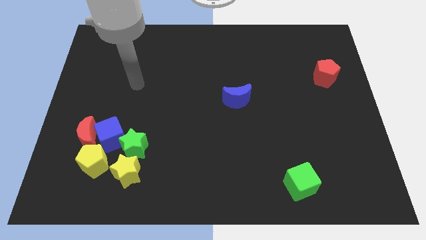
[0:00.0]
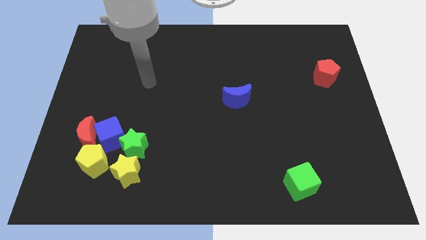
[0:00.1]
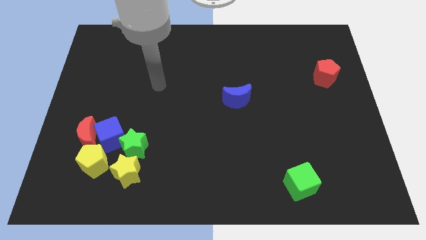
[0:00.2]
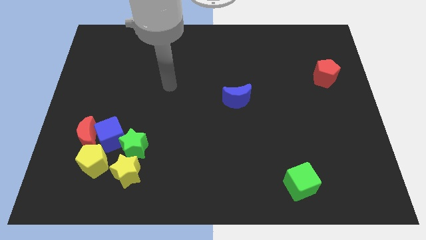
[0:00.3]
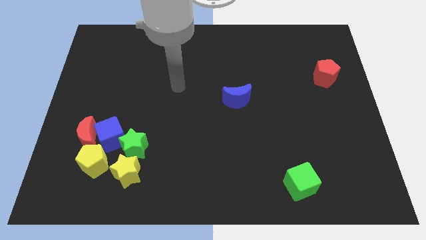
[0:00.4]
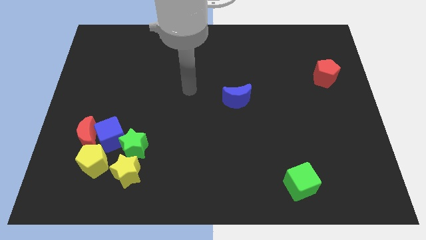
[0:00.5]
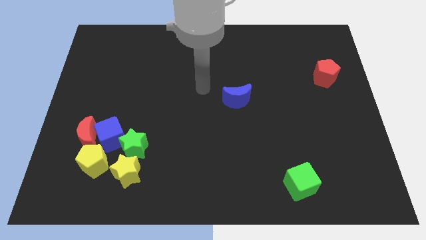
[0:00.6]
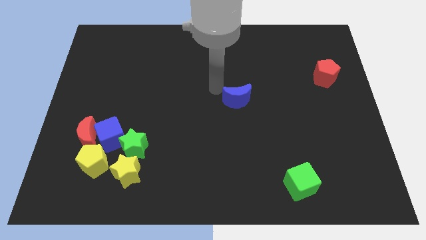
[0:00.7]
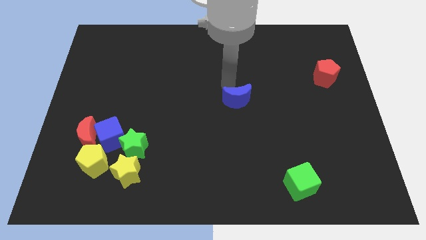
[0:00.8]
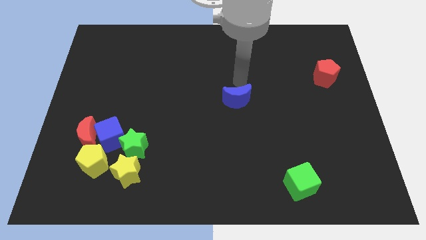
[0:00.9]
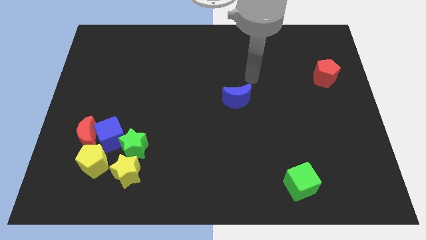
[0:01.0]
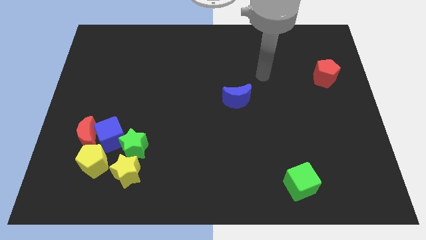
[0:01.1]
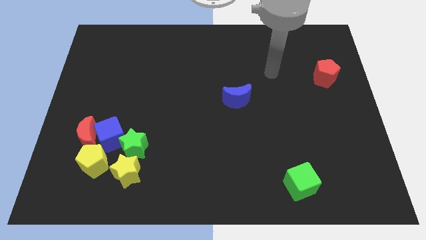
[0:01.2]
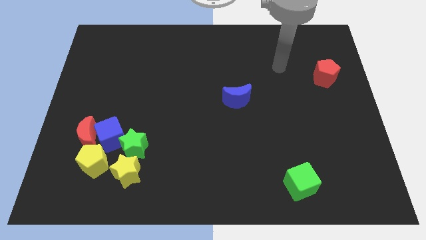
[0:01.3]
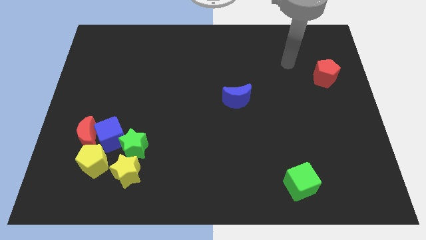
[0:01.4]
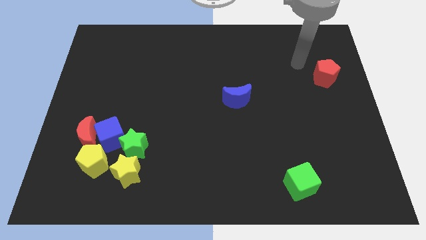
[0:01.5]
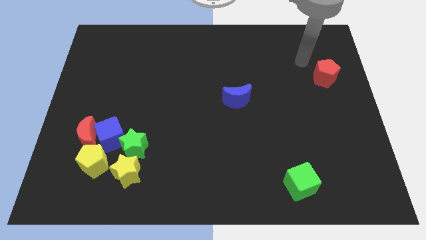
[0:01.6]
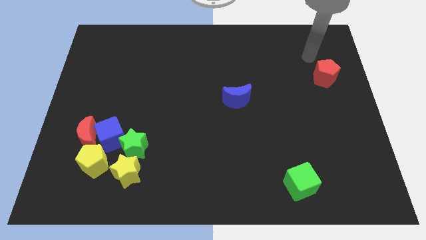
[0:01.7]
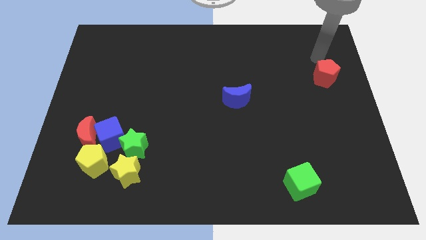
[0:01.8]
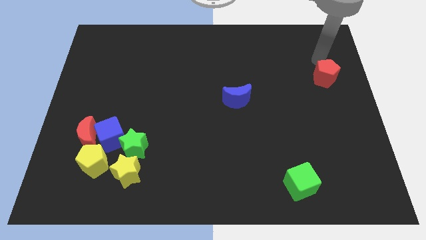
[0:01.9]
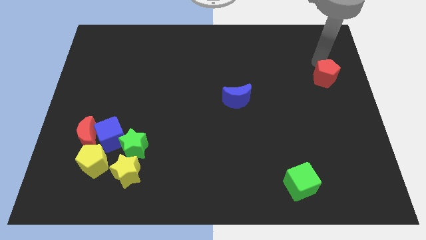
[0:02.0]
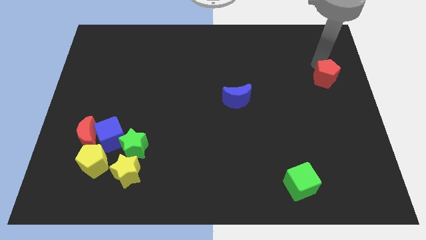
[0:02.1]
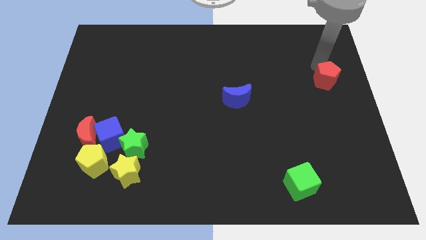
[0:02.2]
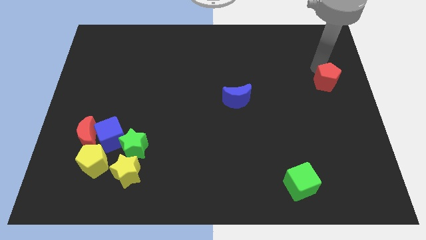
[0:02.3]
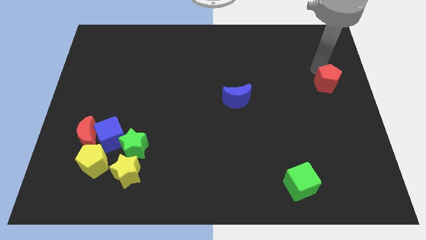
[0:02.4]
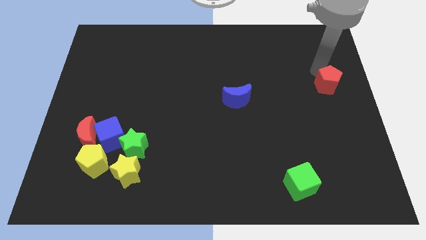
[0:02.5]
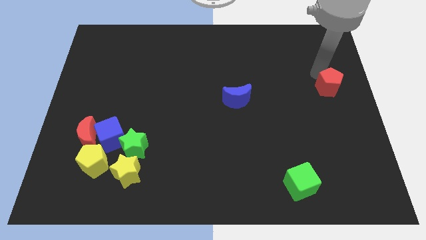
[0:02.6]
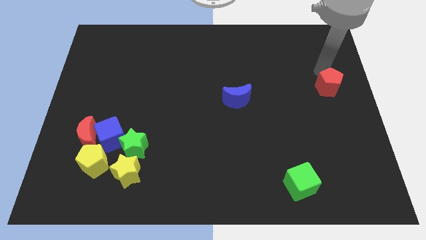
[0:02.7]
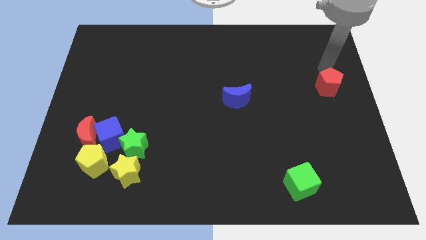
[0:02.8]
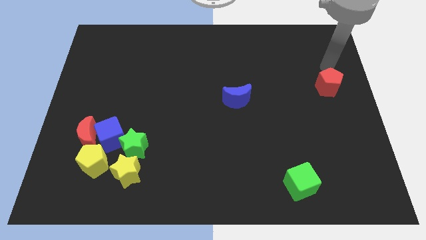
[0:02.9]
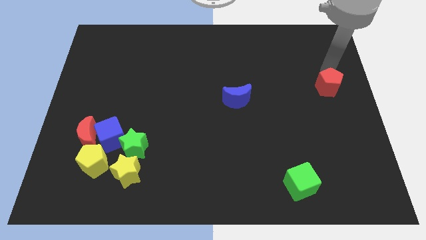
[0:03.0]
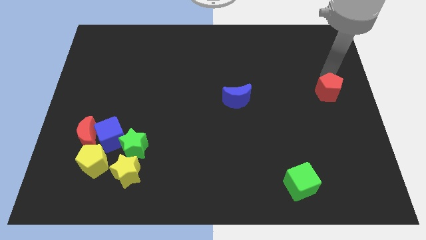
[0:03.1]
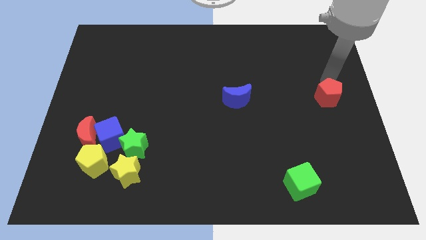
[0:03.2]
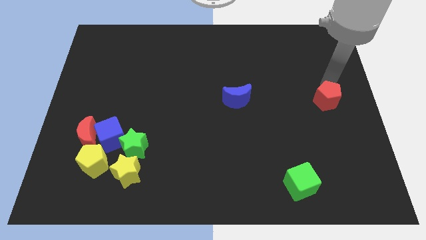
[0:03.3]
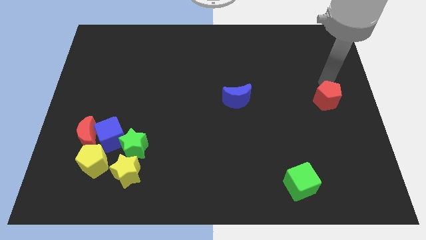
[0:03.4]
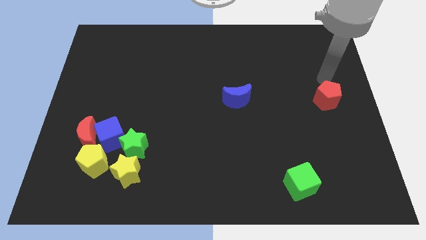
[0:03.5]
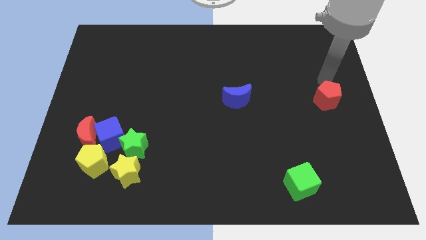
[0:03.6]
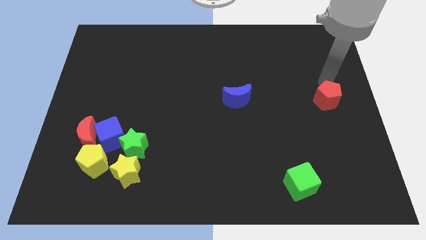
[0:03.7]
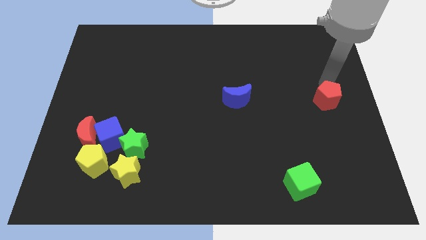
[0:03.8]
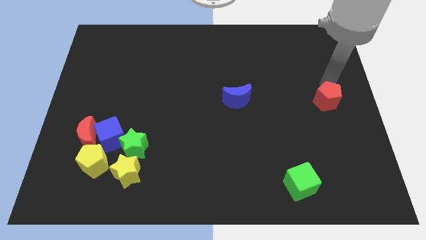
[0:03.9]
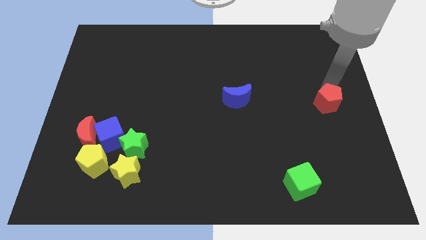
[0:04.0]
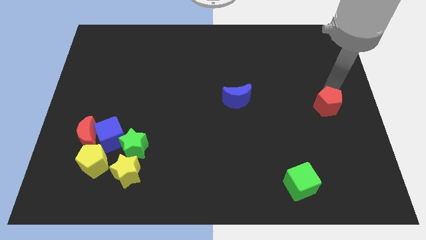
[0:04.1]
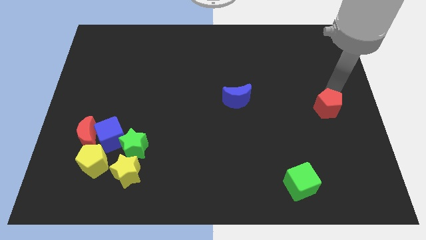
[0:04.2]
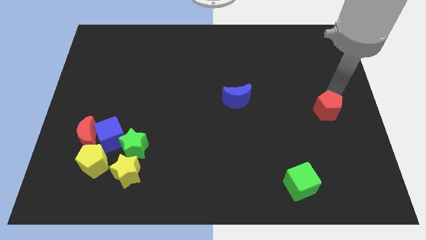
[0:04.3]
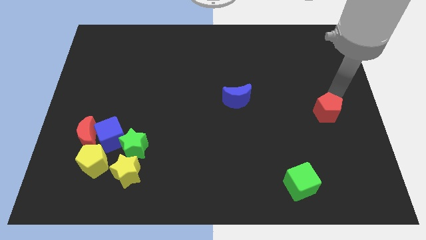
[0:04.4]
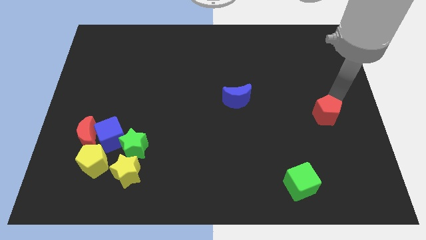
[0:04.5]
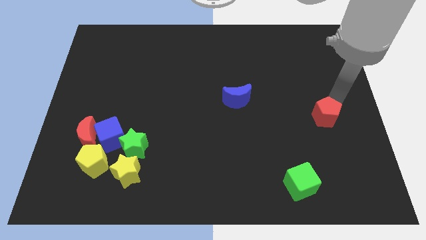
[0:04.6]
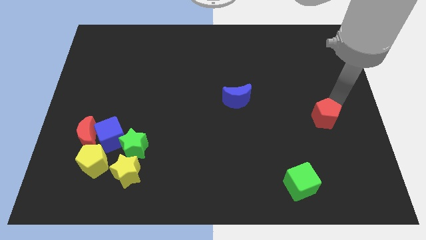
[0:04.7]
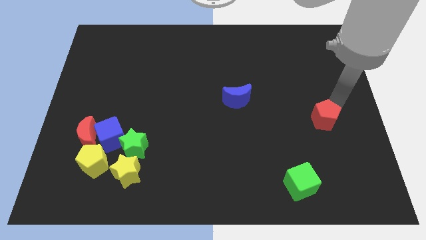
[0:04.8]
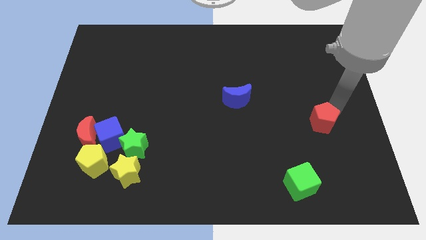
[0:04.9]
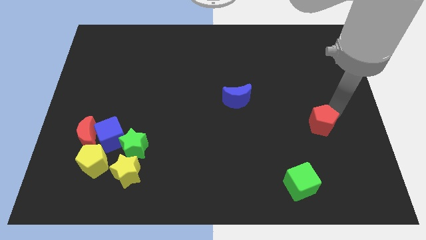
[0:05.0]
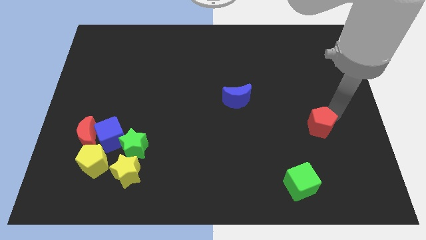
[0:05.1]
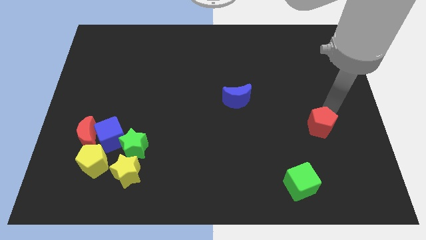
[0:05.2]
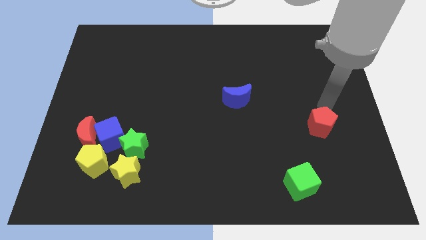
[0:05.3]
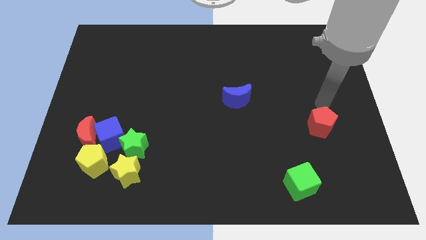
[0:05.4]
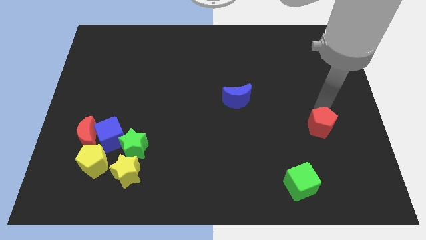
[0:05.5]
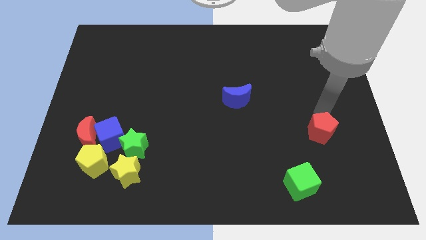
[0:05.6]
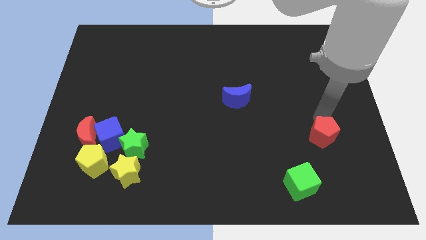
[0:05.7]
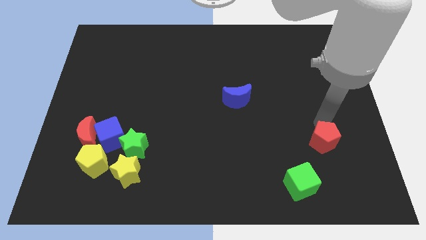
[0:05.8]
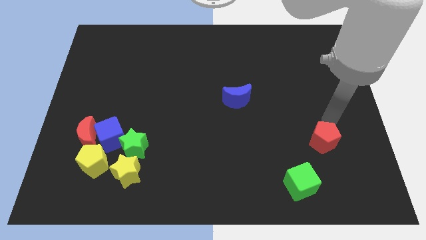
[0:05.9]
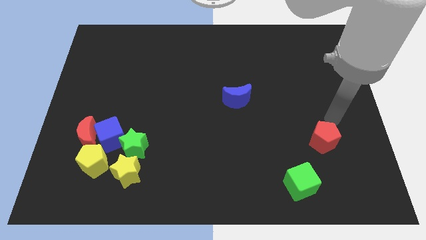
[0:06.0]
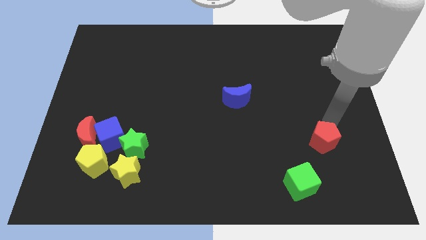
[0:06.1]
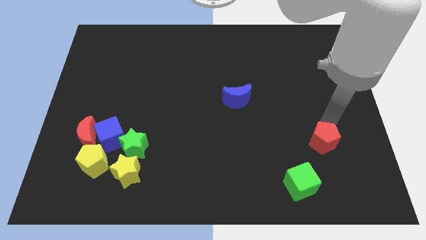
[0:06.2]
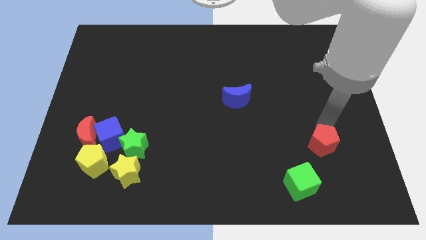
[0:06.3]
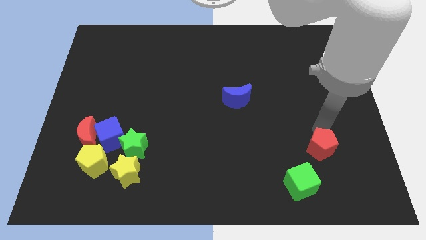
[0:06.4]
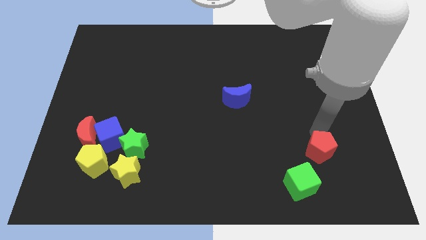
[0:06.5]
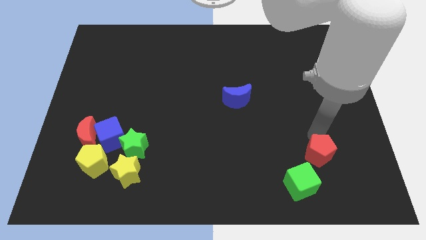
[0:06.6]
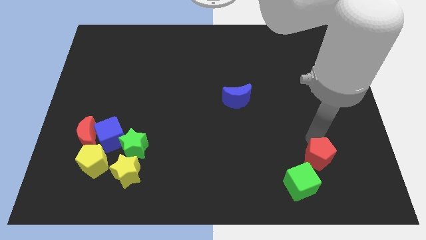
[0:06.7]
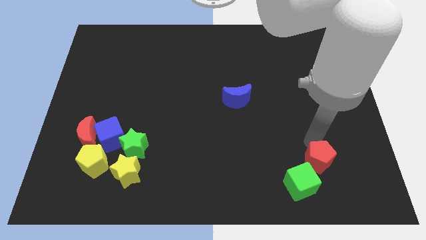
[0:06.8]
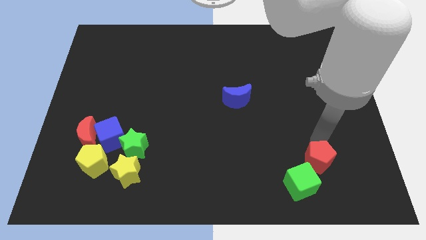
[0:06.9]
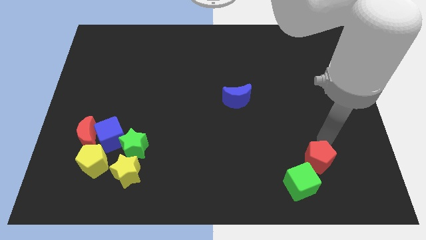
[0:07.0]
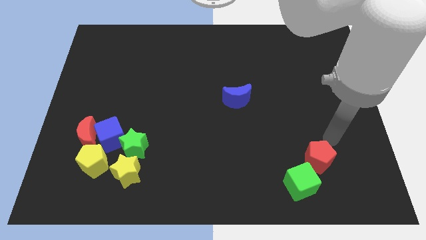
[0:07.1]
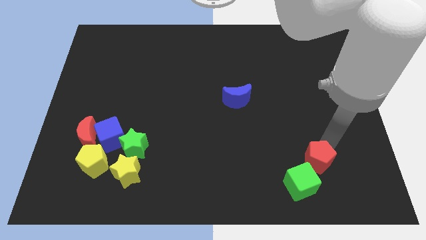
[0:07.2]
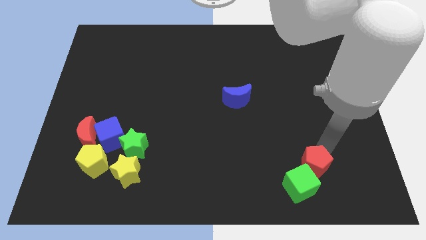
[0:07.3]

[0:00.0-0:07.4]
push the red pentagon next to the green cube

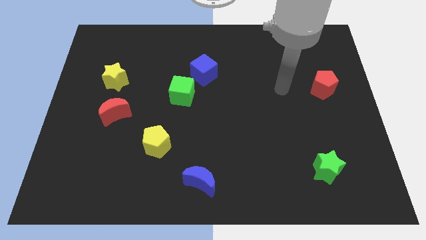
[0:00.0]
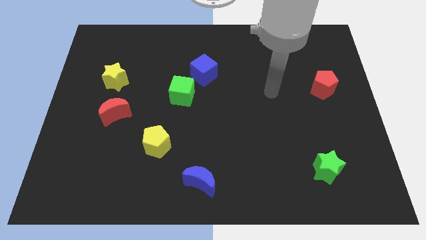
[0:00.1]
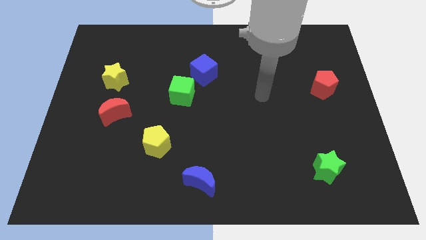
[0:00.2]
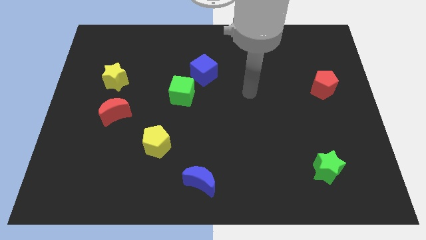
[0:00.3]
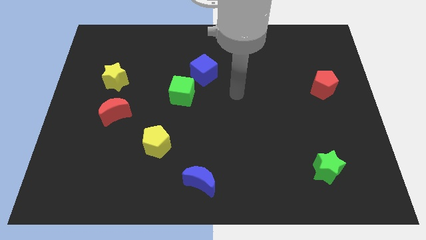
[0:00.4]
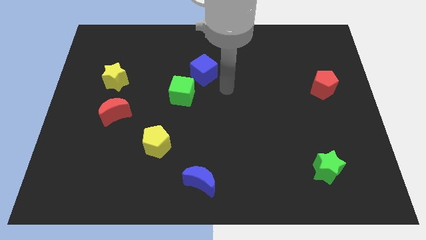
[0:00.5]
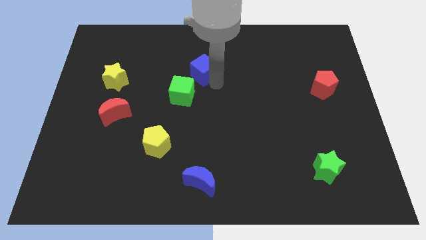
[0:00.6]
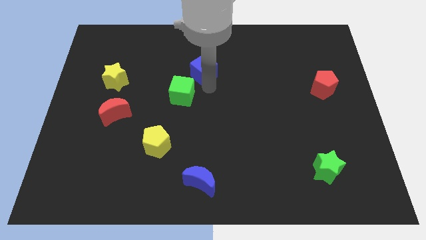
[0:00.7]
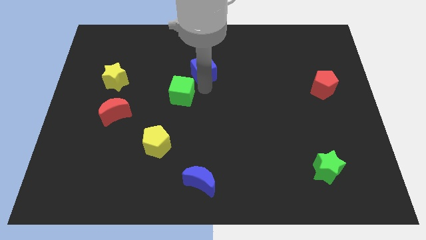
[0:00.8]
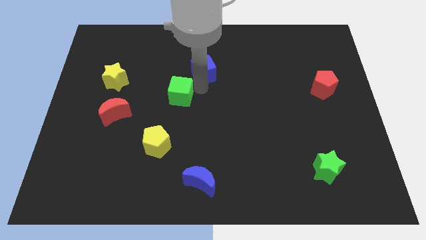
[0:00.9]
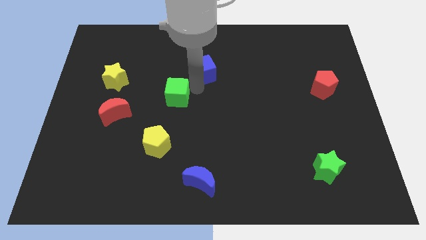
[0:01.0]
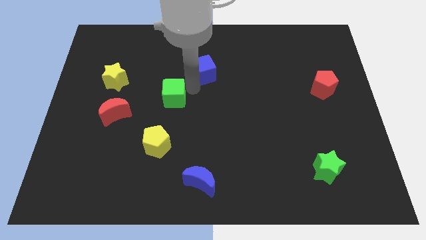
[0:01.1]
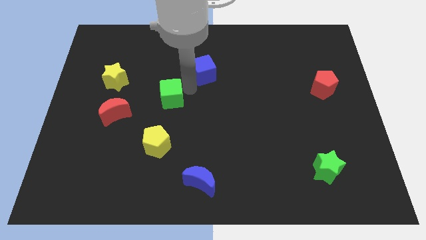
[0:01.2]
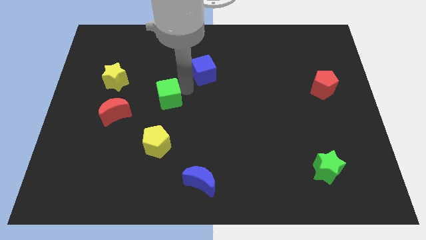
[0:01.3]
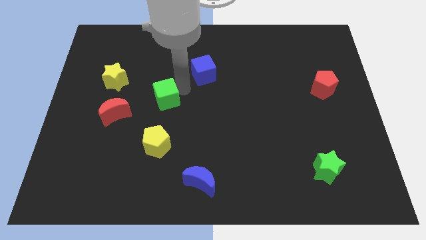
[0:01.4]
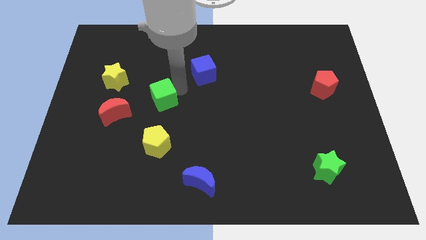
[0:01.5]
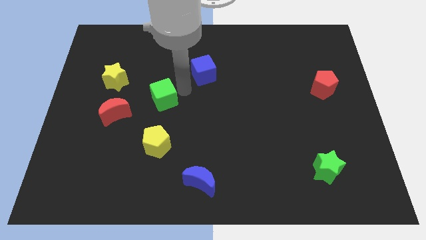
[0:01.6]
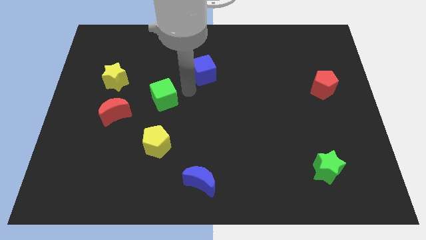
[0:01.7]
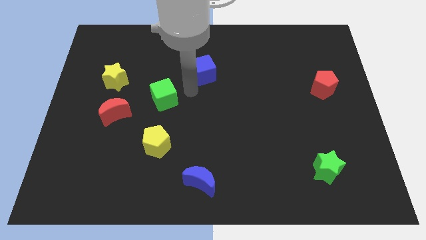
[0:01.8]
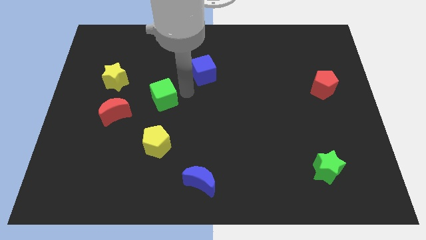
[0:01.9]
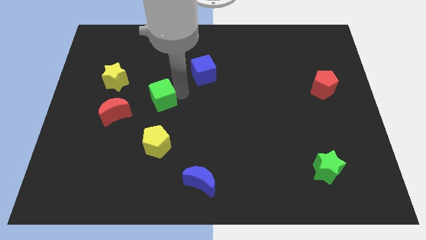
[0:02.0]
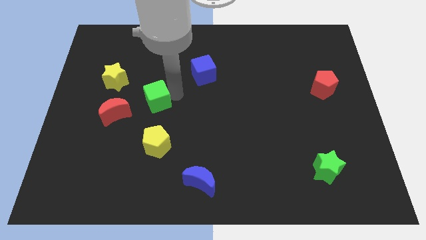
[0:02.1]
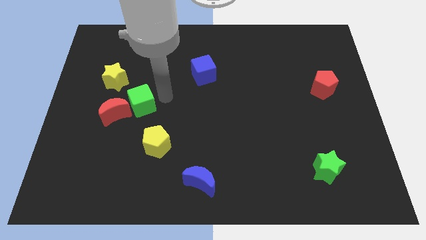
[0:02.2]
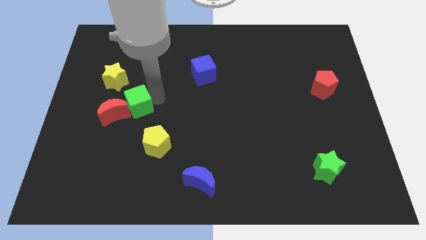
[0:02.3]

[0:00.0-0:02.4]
put the green cube to the red moon
